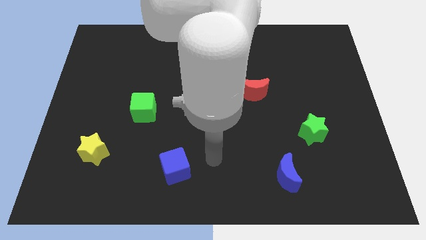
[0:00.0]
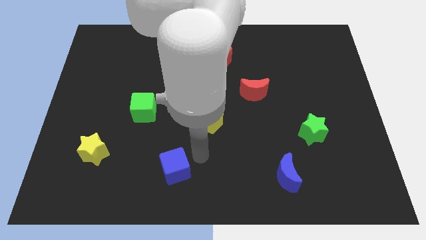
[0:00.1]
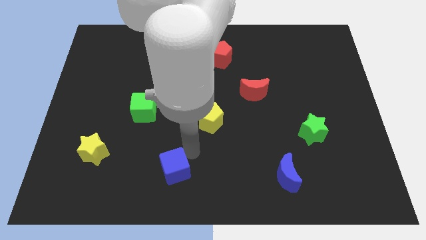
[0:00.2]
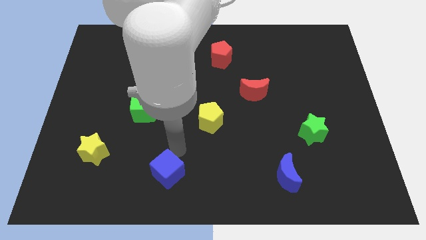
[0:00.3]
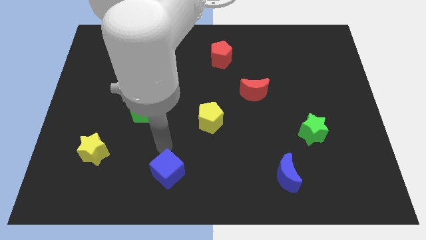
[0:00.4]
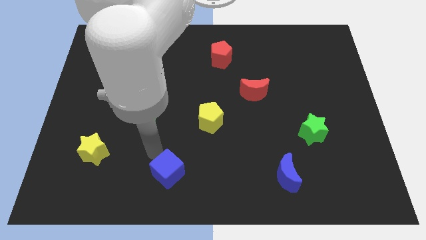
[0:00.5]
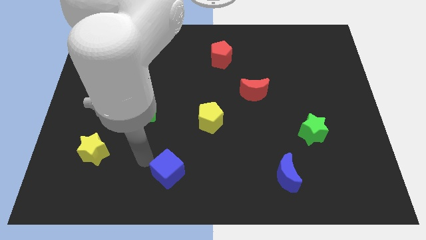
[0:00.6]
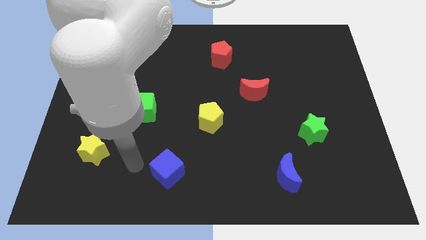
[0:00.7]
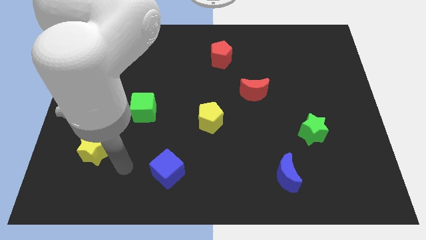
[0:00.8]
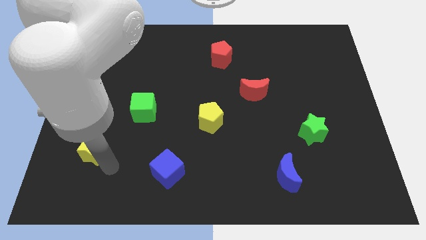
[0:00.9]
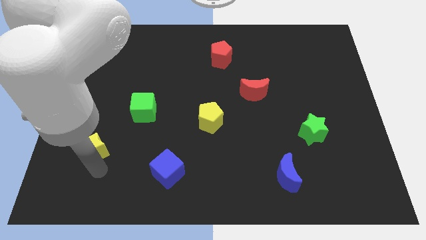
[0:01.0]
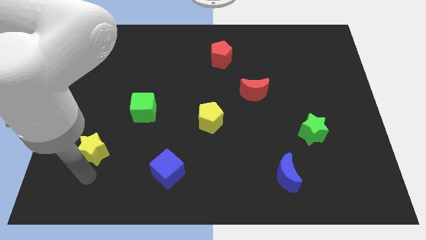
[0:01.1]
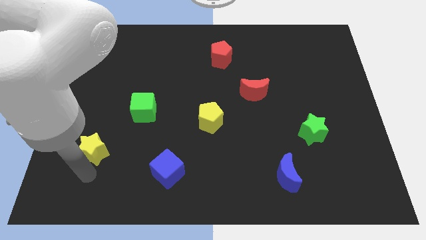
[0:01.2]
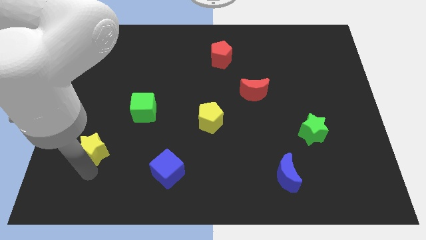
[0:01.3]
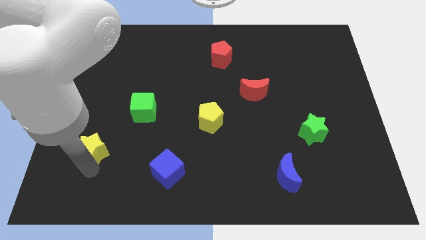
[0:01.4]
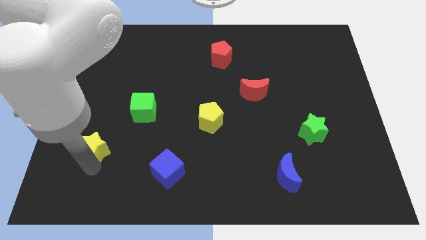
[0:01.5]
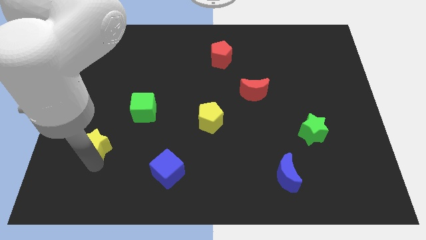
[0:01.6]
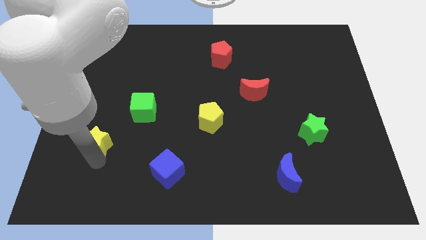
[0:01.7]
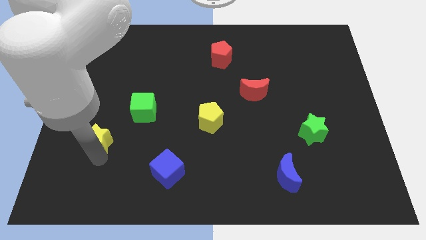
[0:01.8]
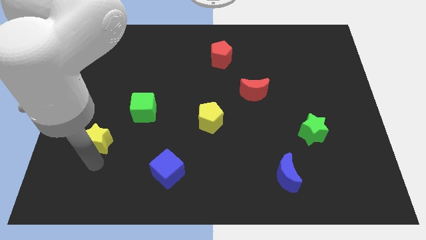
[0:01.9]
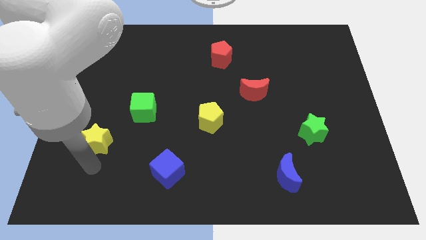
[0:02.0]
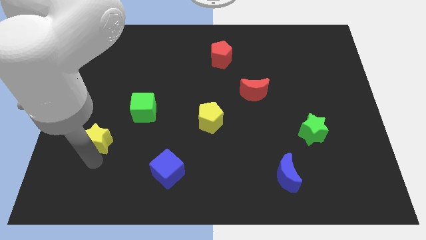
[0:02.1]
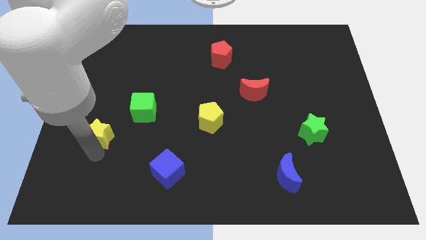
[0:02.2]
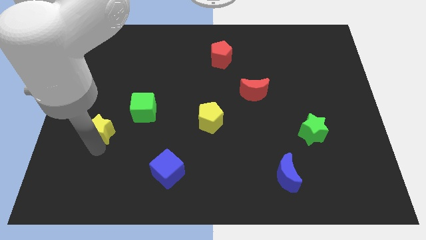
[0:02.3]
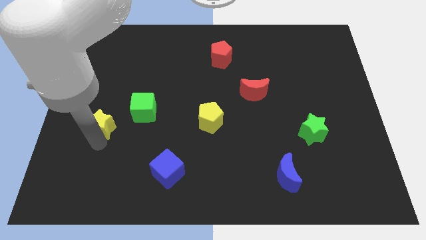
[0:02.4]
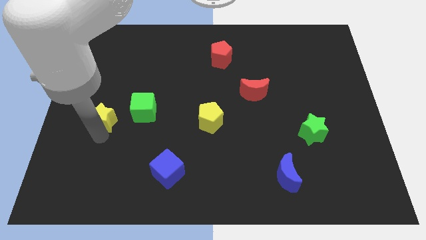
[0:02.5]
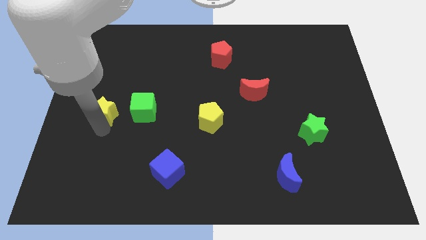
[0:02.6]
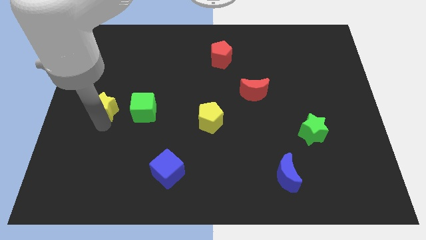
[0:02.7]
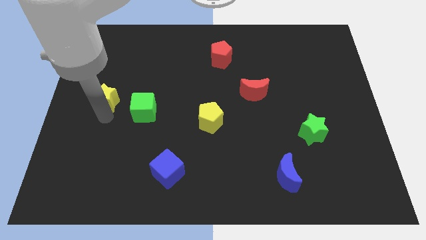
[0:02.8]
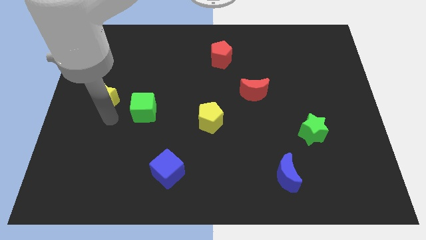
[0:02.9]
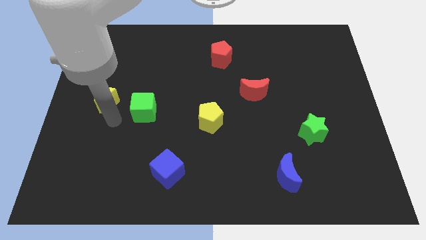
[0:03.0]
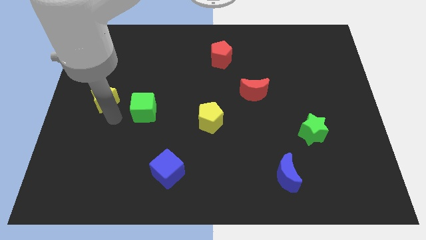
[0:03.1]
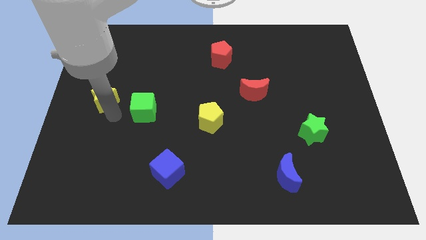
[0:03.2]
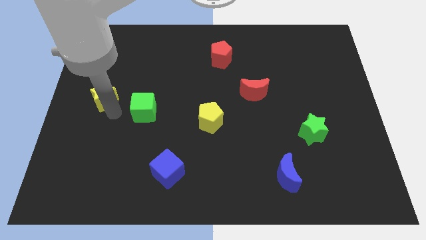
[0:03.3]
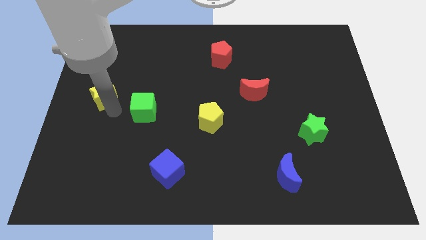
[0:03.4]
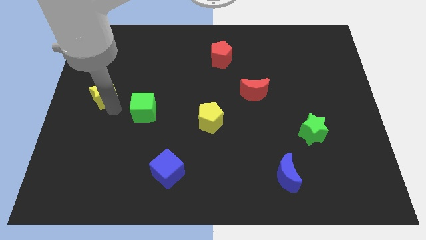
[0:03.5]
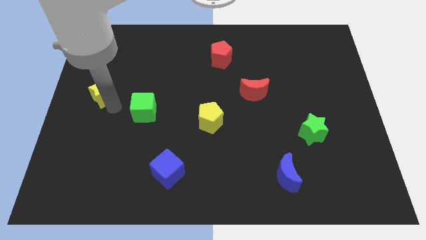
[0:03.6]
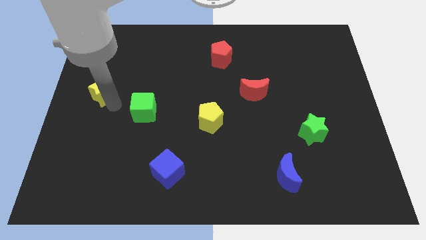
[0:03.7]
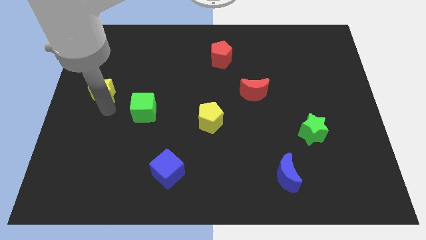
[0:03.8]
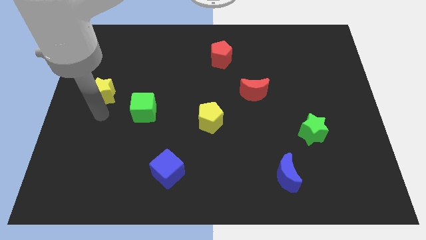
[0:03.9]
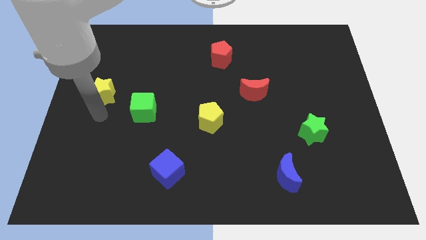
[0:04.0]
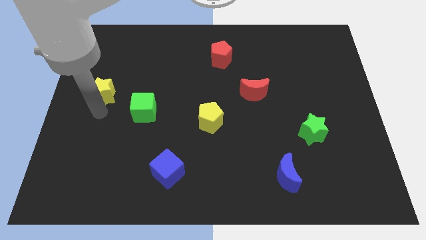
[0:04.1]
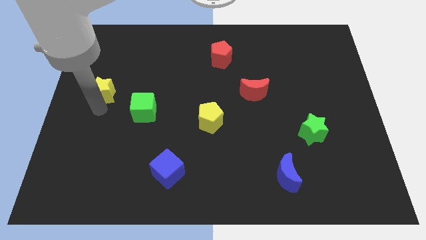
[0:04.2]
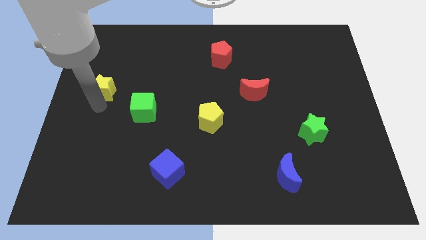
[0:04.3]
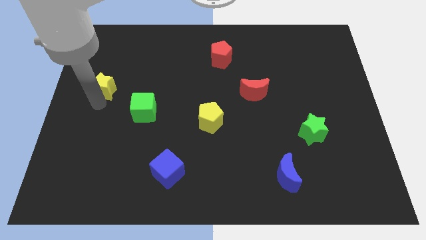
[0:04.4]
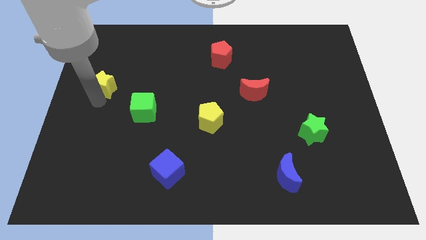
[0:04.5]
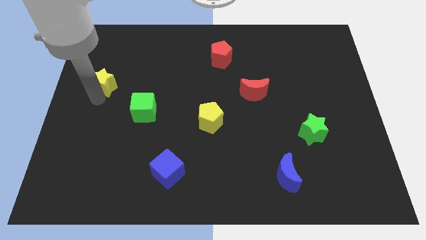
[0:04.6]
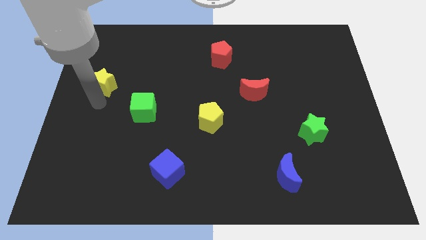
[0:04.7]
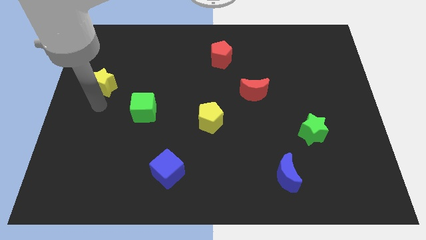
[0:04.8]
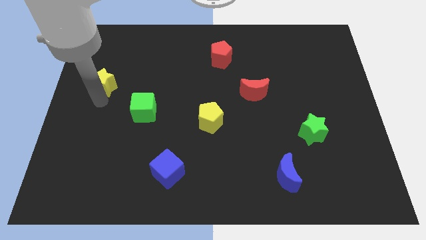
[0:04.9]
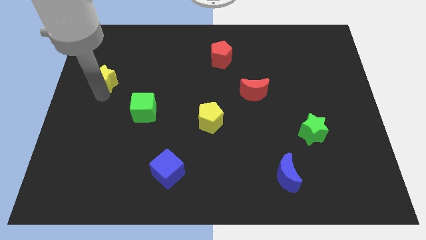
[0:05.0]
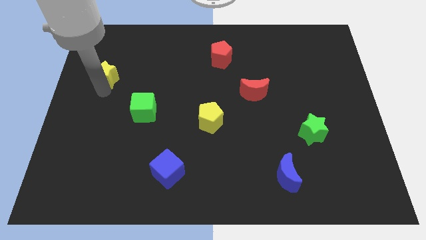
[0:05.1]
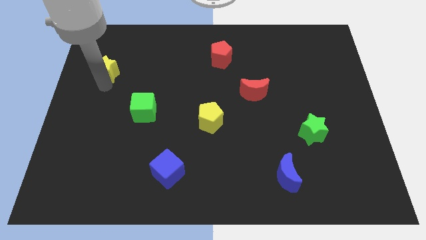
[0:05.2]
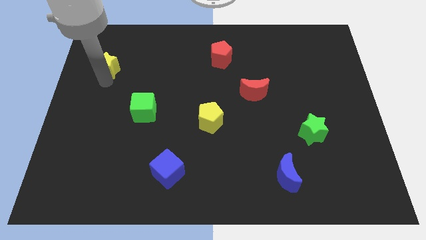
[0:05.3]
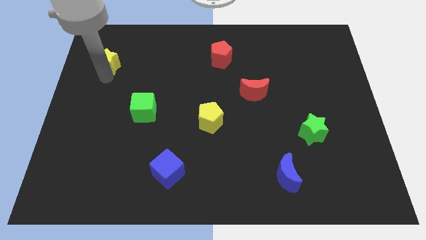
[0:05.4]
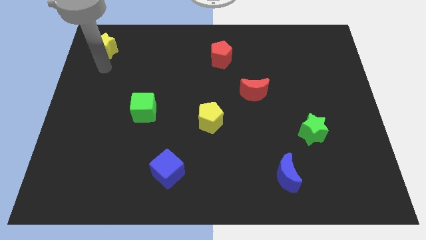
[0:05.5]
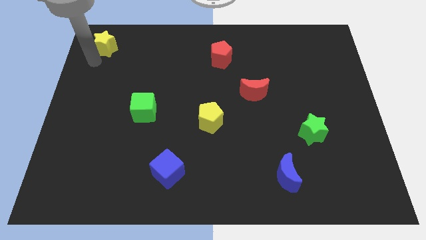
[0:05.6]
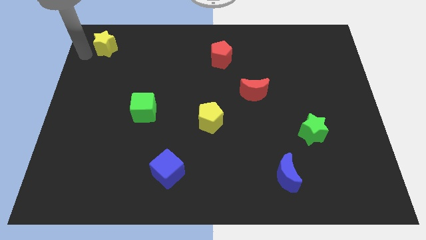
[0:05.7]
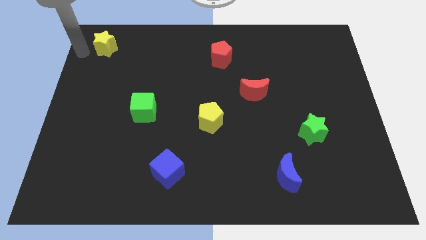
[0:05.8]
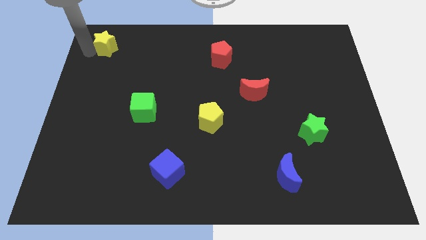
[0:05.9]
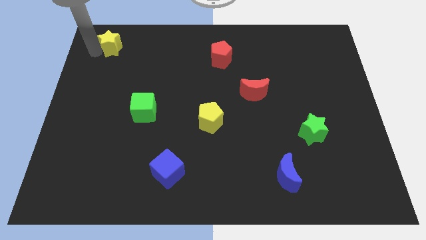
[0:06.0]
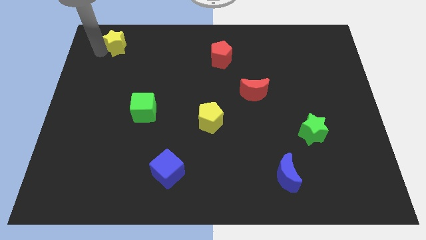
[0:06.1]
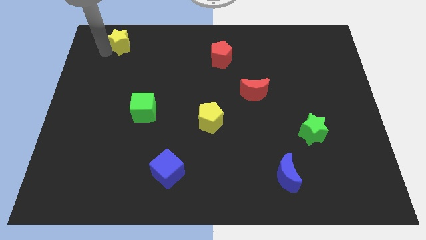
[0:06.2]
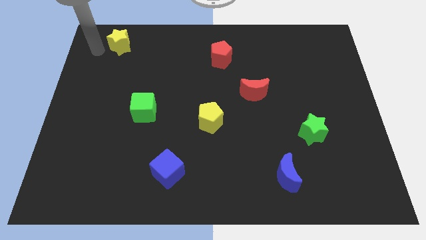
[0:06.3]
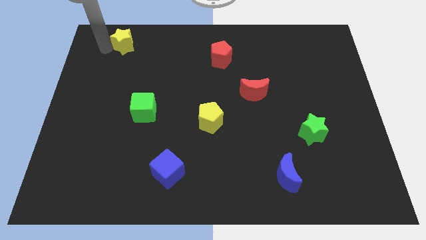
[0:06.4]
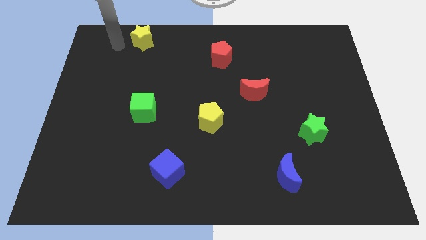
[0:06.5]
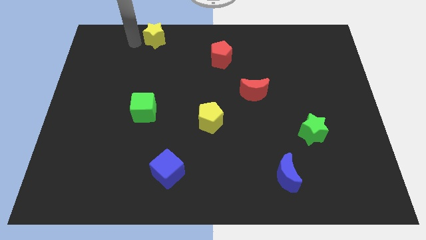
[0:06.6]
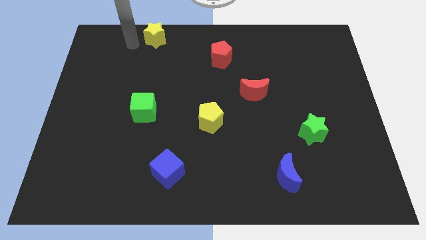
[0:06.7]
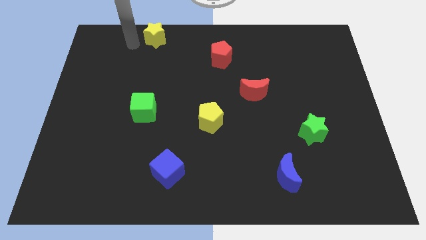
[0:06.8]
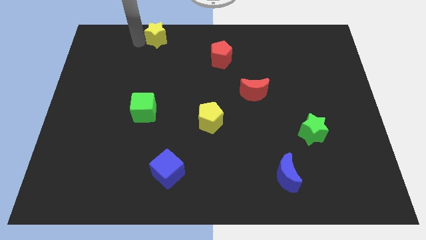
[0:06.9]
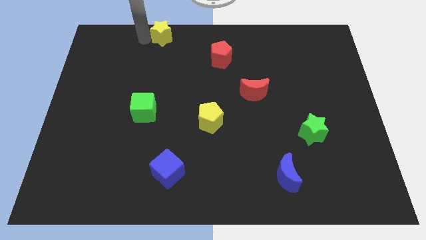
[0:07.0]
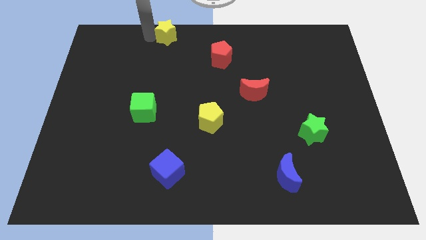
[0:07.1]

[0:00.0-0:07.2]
slide the yellow star to the towards your base
